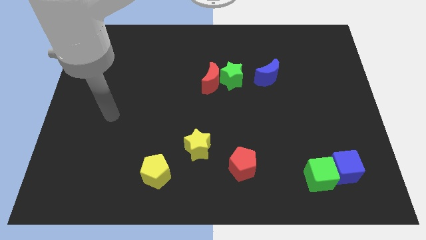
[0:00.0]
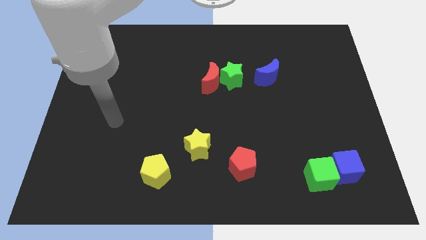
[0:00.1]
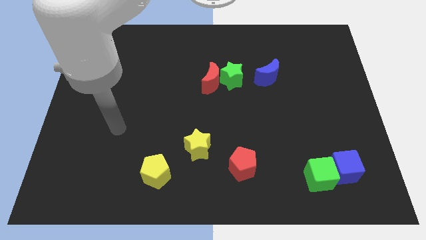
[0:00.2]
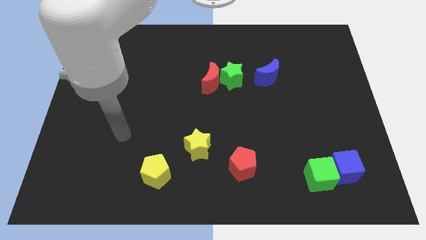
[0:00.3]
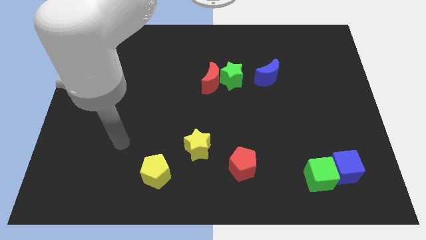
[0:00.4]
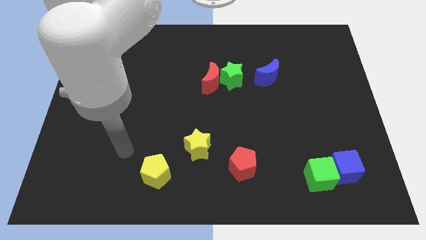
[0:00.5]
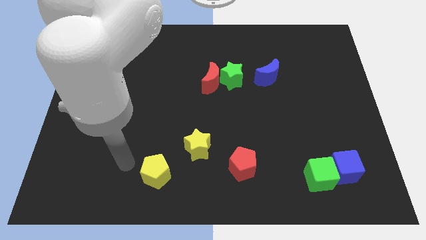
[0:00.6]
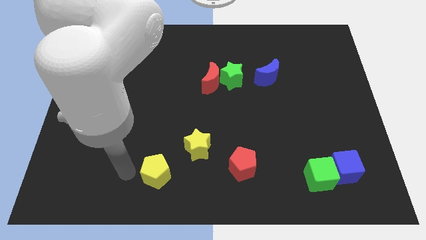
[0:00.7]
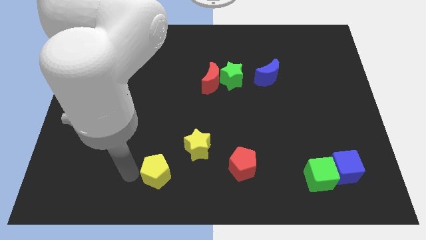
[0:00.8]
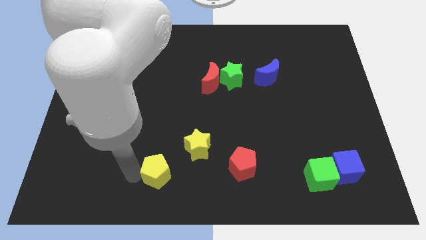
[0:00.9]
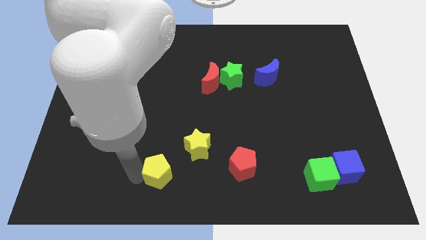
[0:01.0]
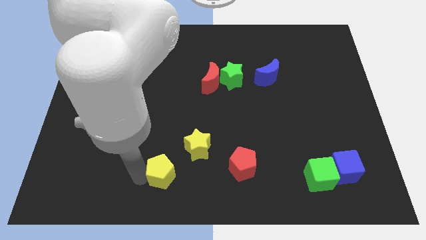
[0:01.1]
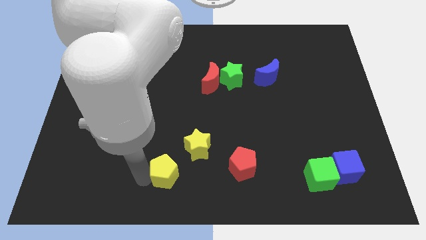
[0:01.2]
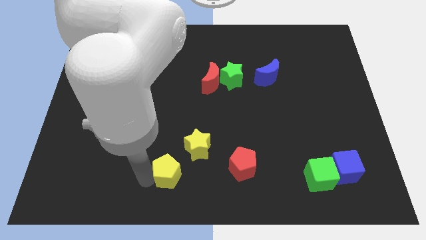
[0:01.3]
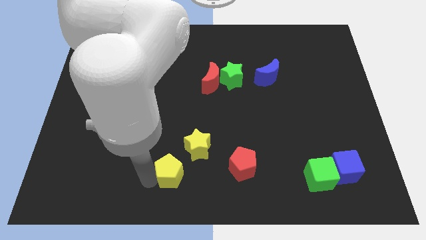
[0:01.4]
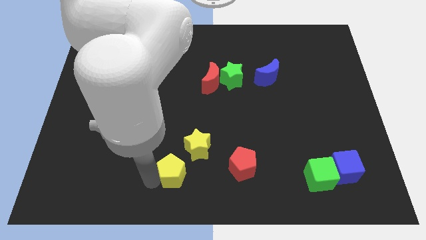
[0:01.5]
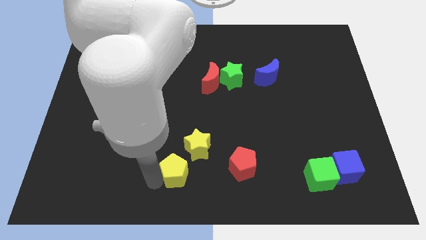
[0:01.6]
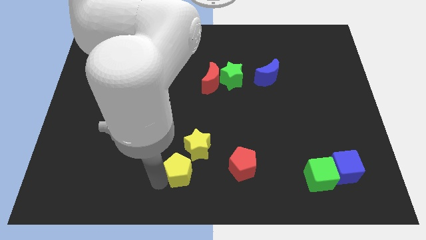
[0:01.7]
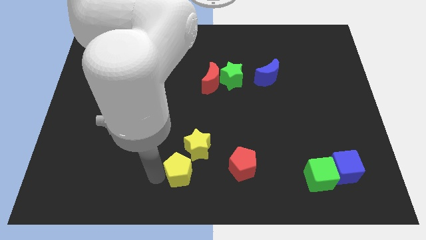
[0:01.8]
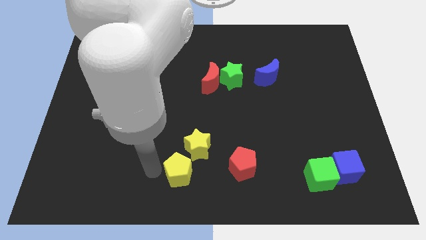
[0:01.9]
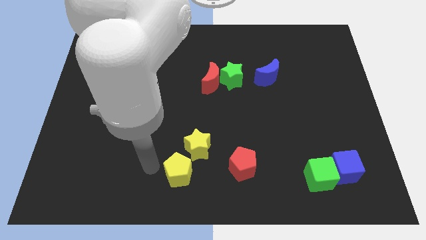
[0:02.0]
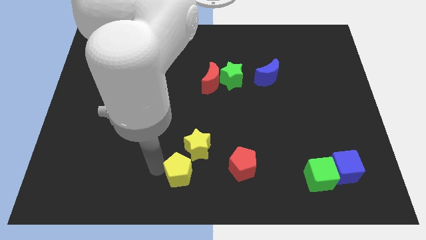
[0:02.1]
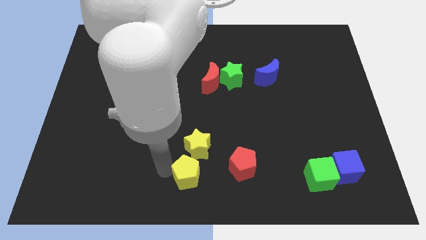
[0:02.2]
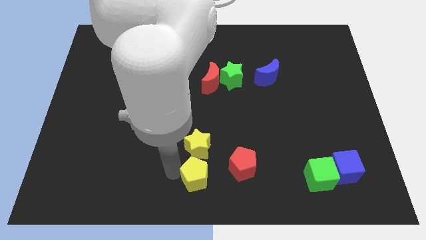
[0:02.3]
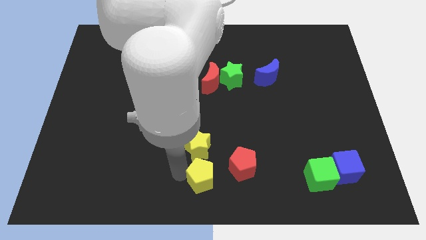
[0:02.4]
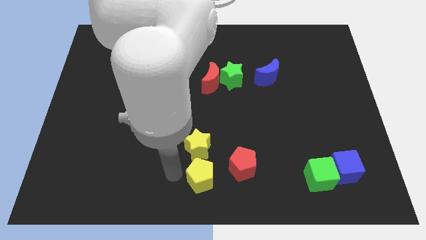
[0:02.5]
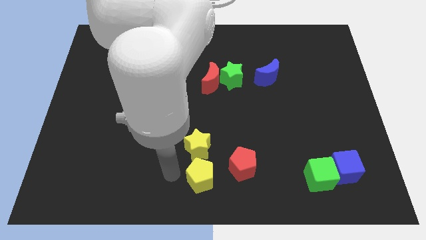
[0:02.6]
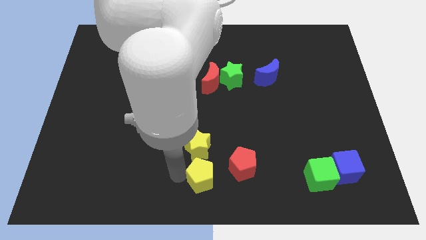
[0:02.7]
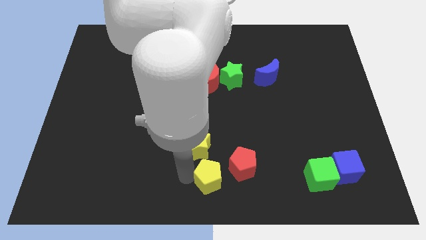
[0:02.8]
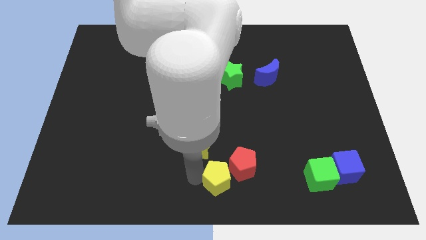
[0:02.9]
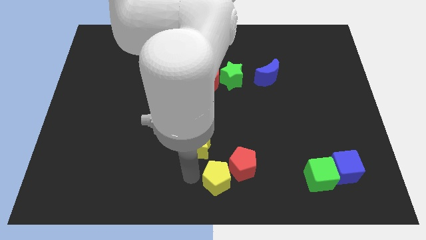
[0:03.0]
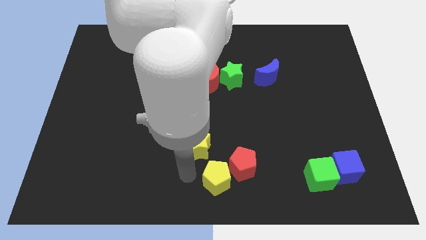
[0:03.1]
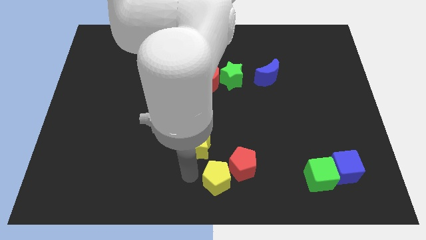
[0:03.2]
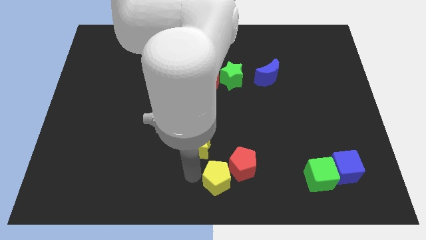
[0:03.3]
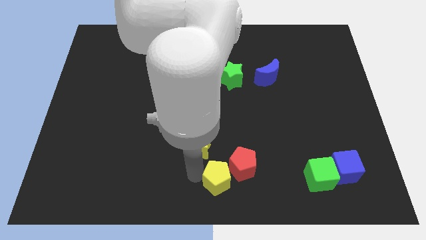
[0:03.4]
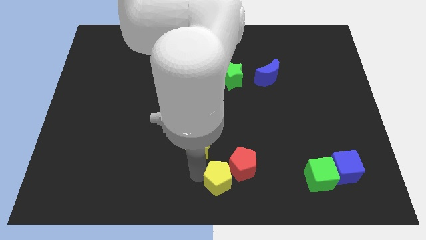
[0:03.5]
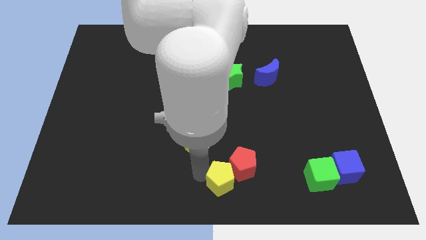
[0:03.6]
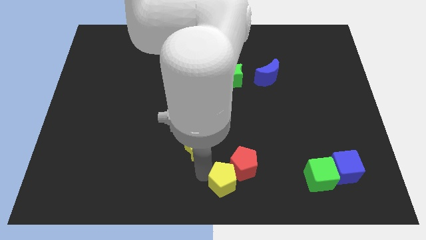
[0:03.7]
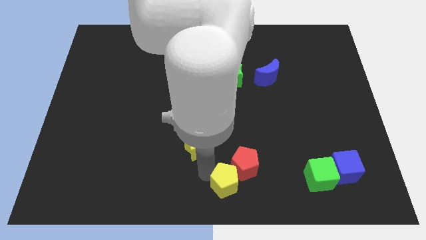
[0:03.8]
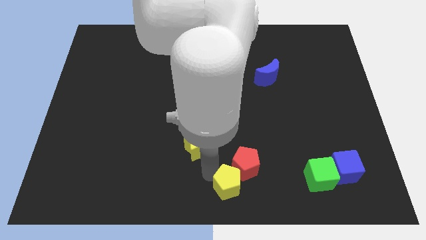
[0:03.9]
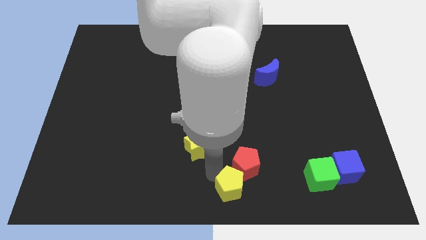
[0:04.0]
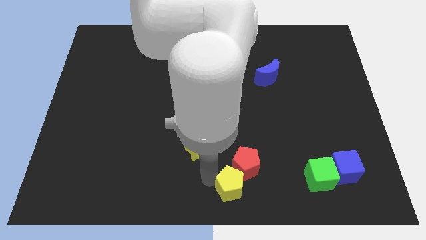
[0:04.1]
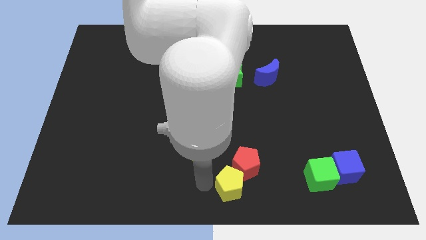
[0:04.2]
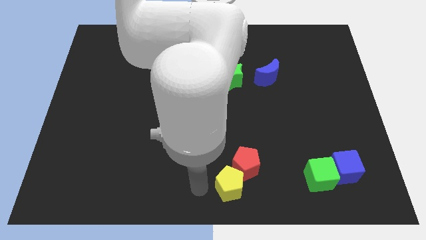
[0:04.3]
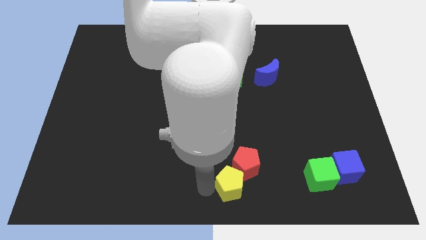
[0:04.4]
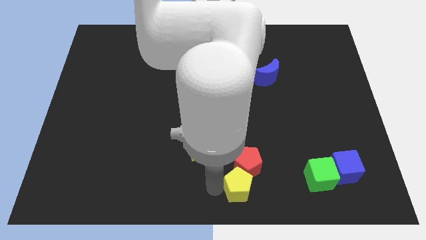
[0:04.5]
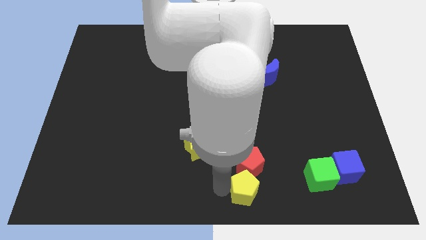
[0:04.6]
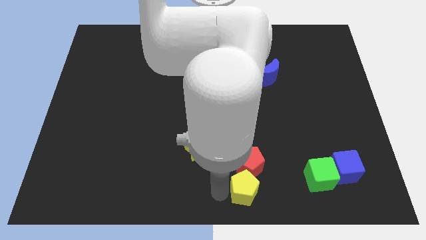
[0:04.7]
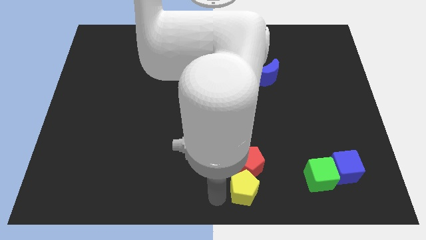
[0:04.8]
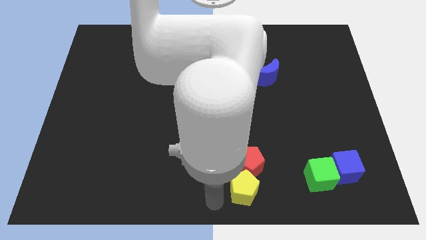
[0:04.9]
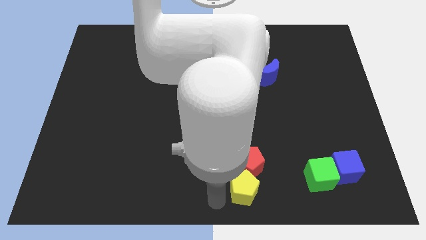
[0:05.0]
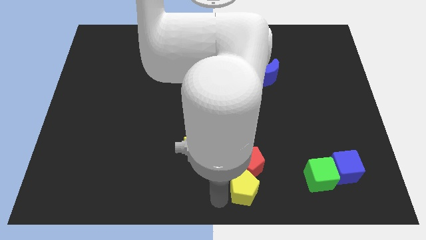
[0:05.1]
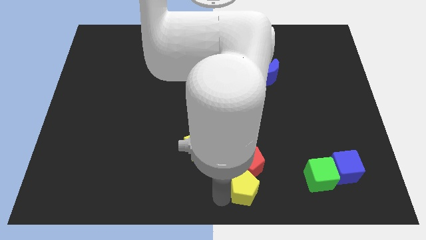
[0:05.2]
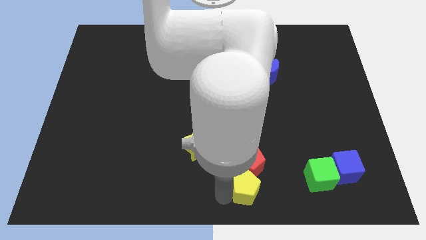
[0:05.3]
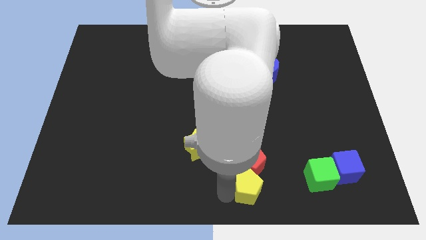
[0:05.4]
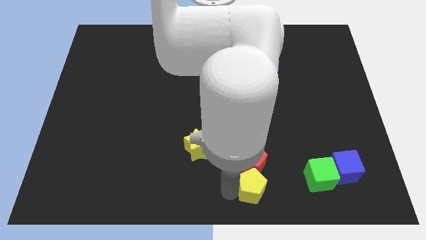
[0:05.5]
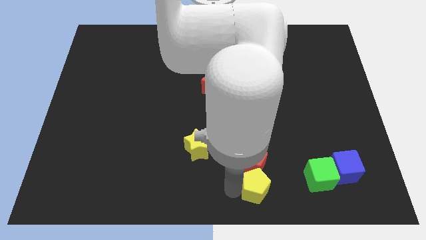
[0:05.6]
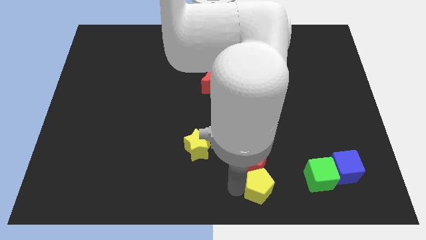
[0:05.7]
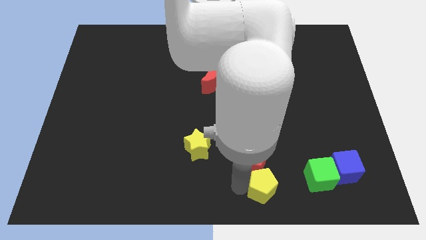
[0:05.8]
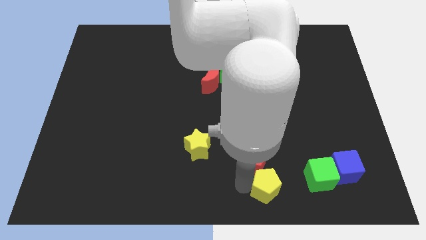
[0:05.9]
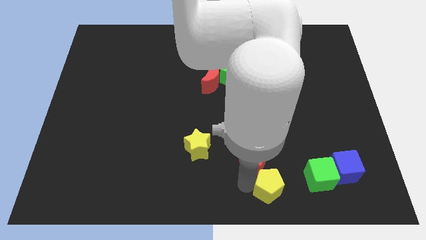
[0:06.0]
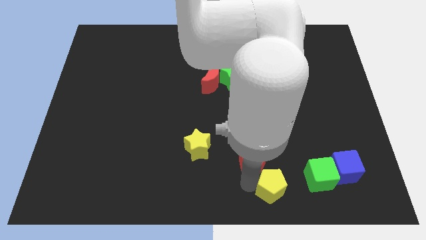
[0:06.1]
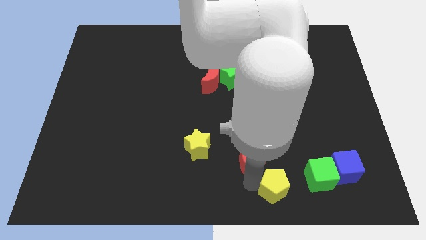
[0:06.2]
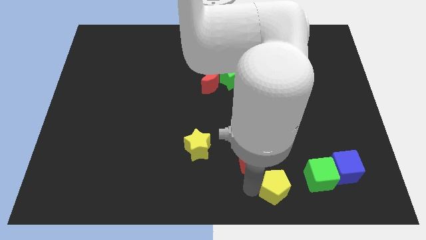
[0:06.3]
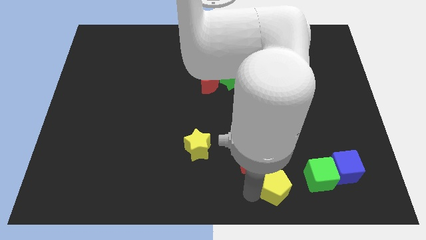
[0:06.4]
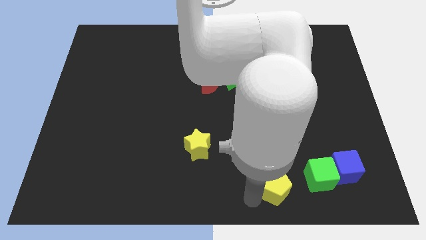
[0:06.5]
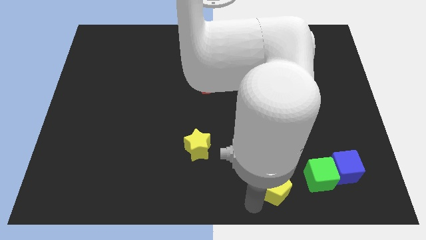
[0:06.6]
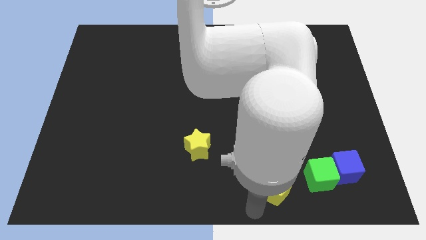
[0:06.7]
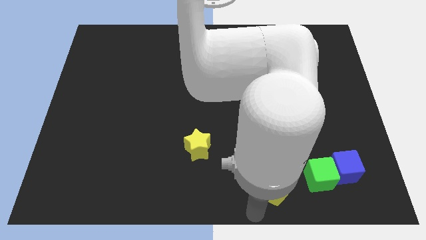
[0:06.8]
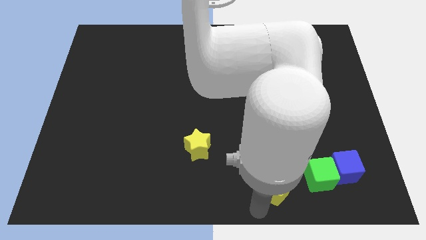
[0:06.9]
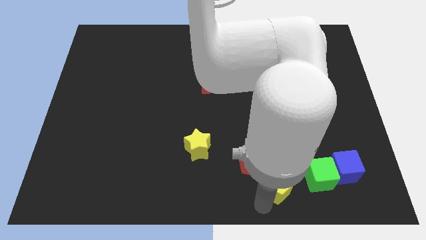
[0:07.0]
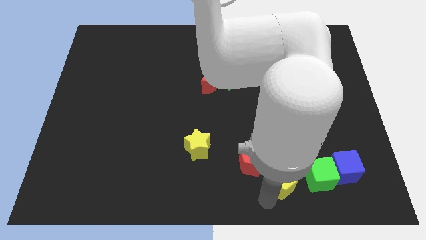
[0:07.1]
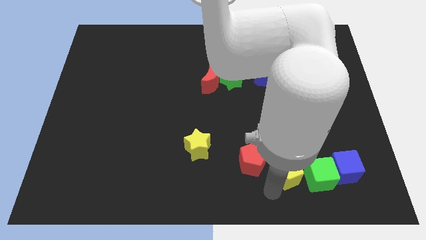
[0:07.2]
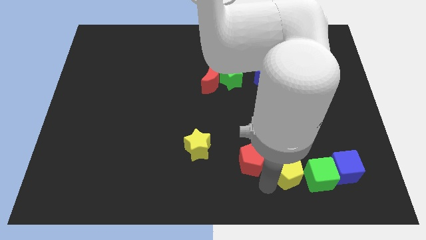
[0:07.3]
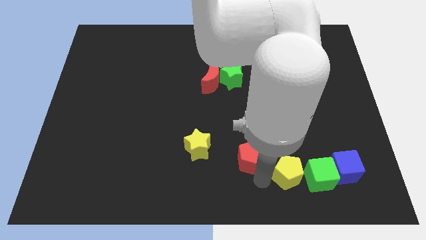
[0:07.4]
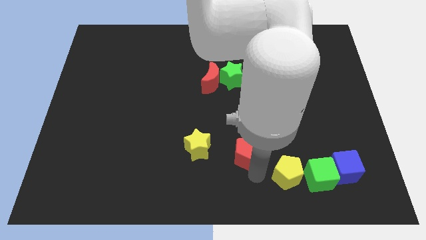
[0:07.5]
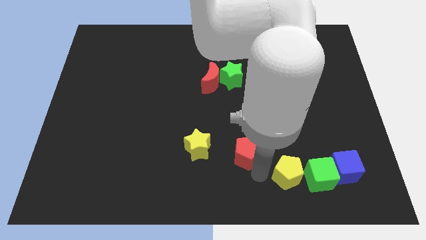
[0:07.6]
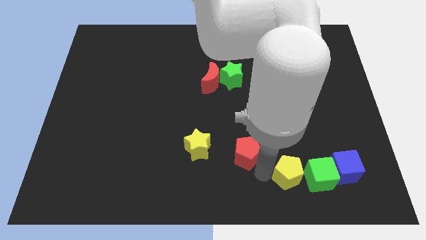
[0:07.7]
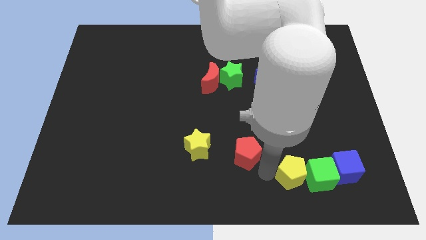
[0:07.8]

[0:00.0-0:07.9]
put the yellow pentagon next to the green cube
